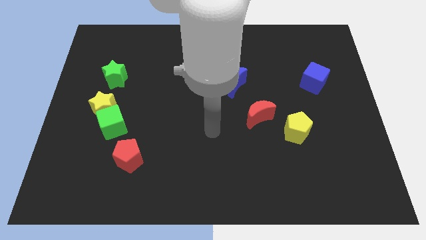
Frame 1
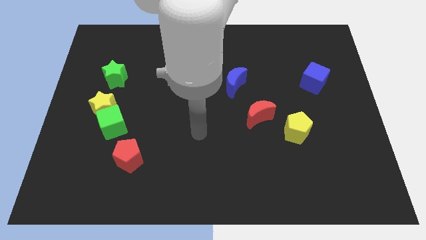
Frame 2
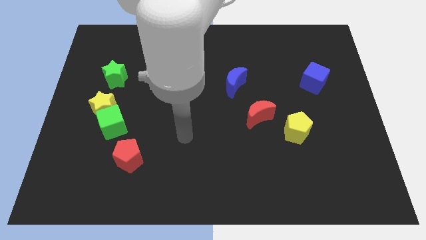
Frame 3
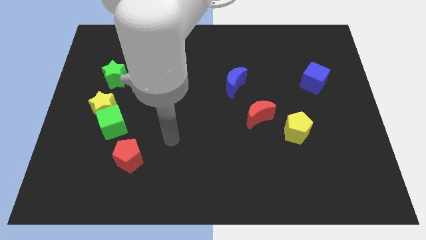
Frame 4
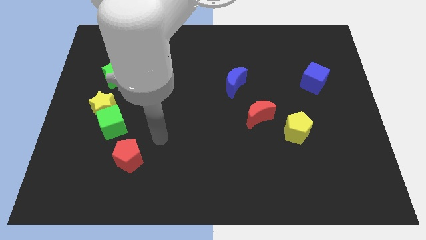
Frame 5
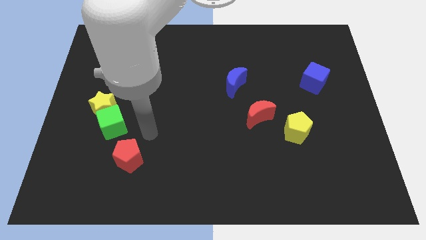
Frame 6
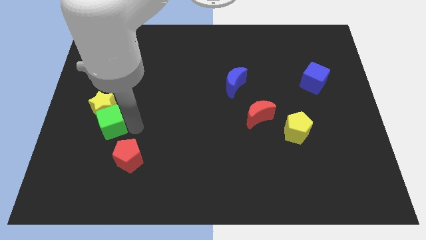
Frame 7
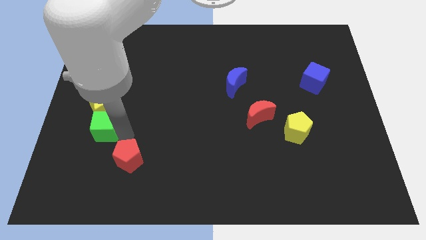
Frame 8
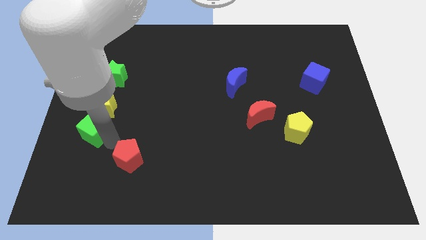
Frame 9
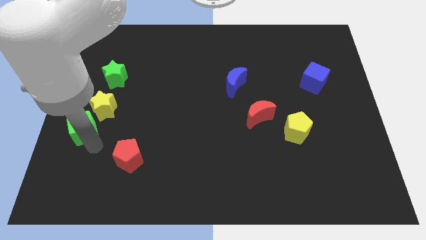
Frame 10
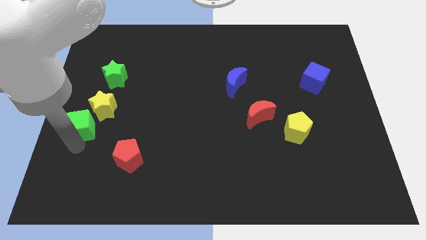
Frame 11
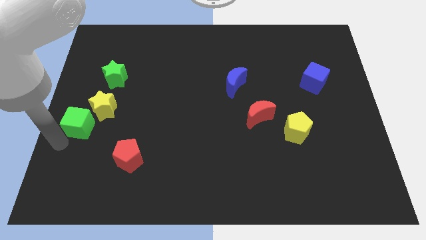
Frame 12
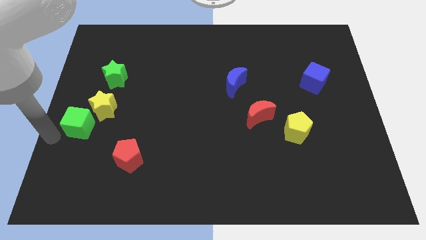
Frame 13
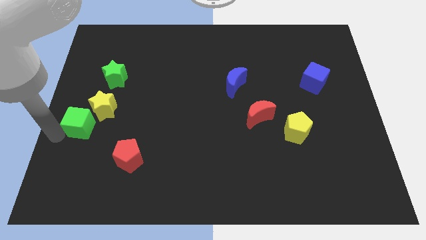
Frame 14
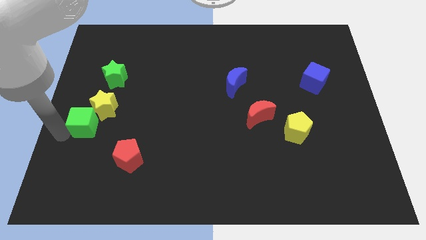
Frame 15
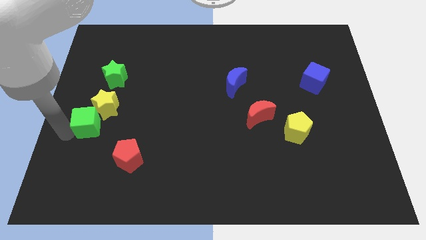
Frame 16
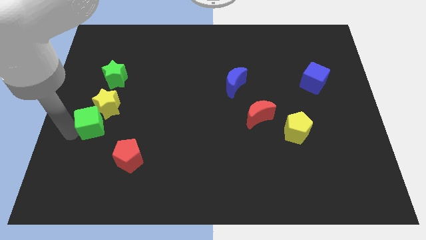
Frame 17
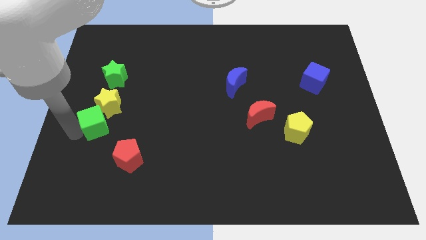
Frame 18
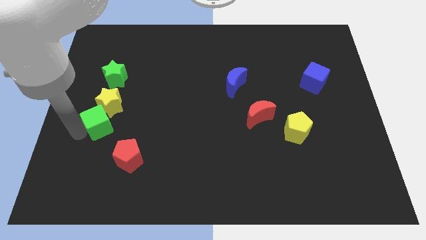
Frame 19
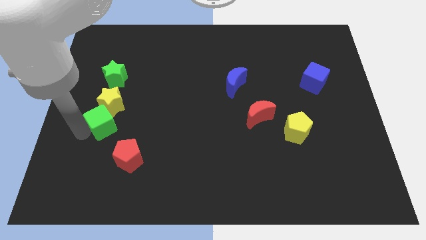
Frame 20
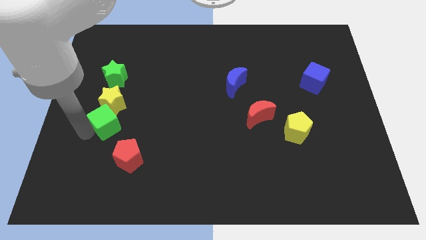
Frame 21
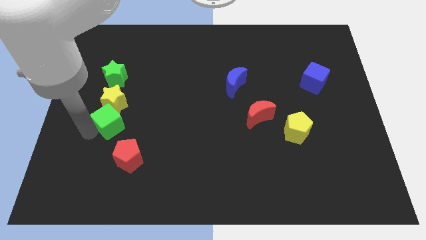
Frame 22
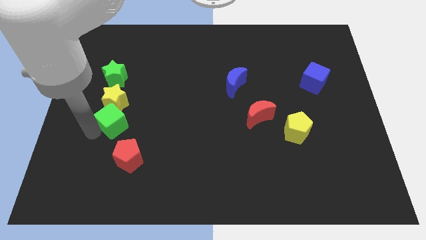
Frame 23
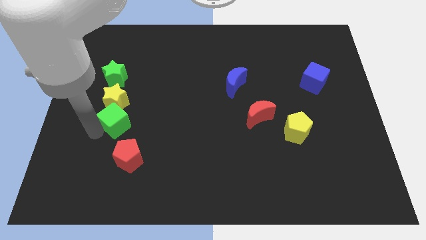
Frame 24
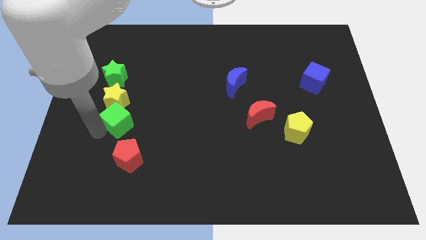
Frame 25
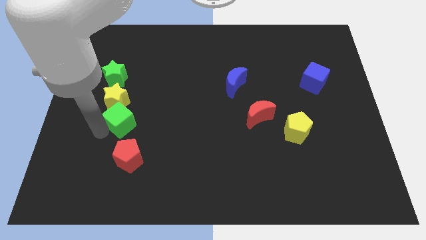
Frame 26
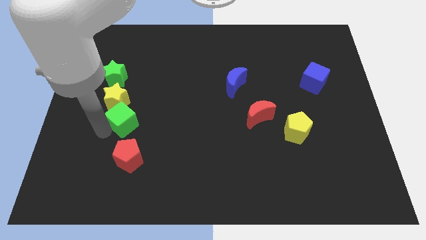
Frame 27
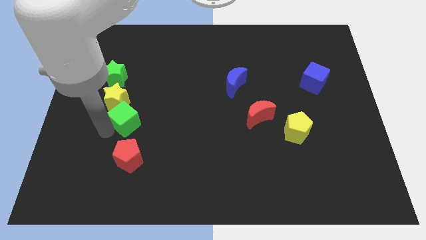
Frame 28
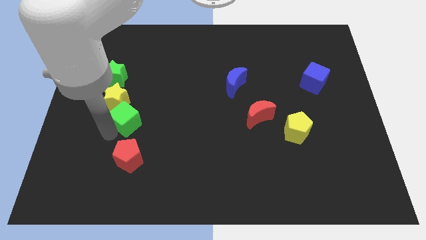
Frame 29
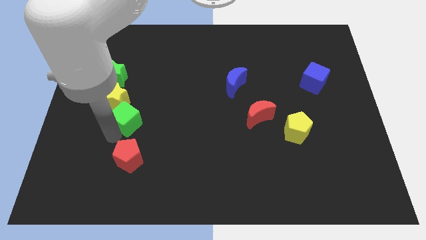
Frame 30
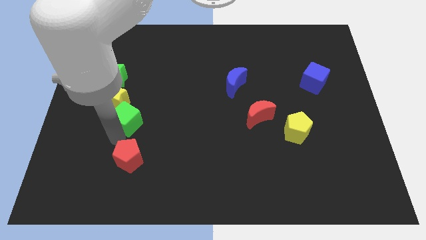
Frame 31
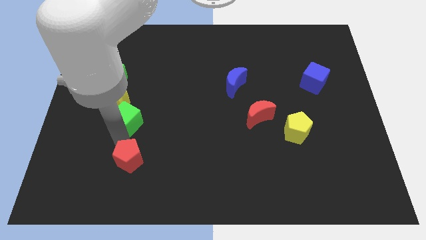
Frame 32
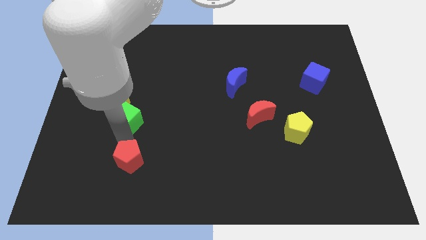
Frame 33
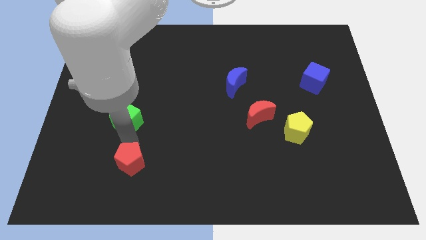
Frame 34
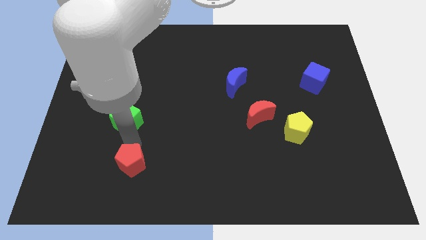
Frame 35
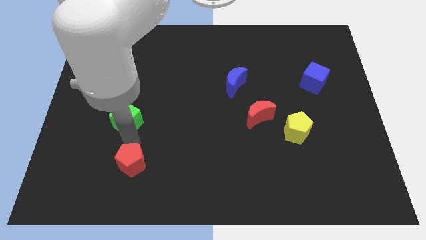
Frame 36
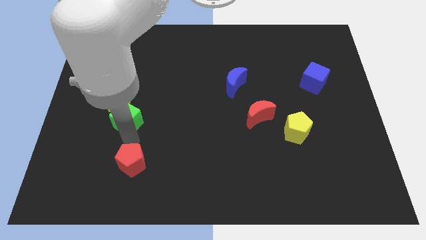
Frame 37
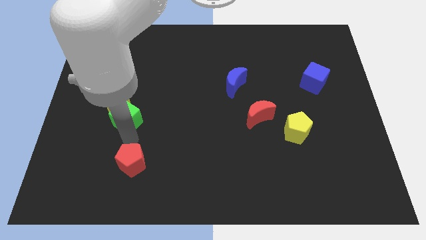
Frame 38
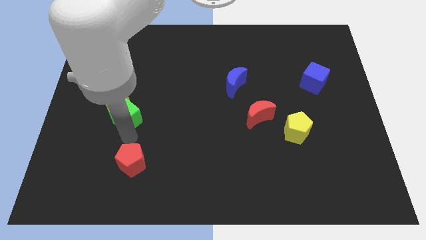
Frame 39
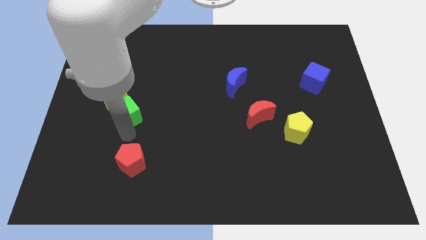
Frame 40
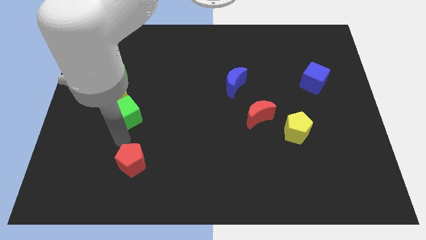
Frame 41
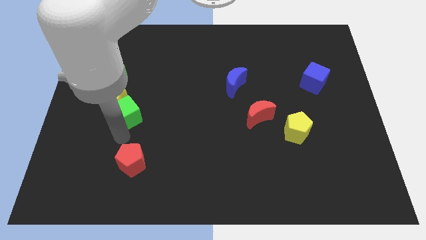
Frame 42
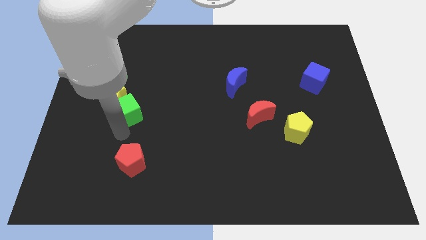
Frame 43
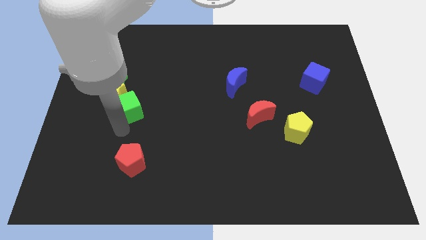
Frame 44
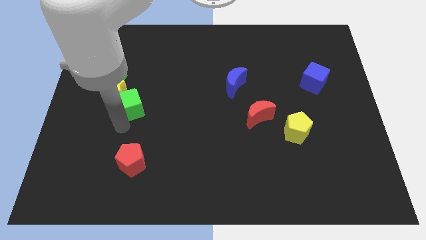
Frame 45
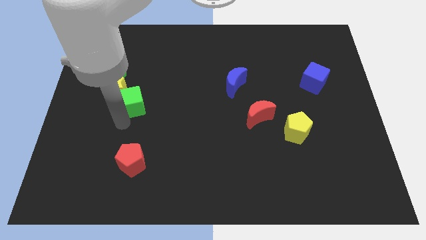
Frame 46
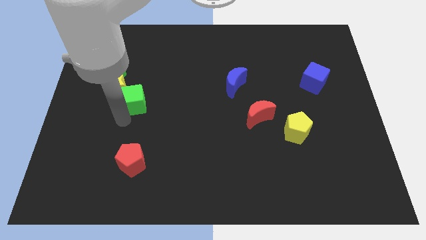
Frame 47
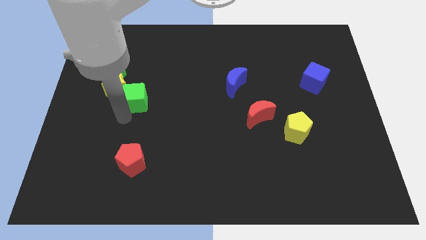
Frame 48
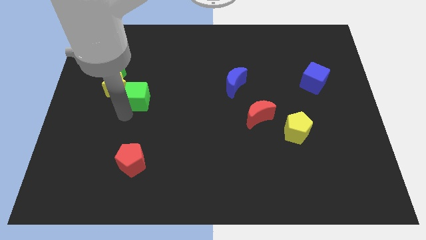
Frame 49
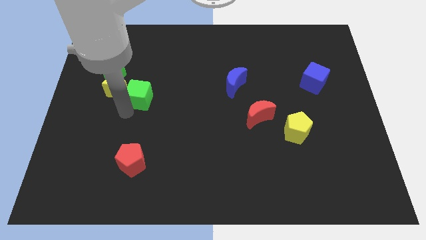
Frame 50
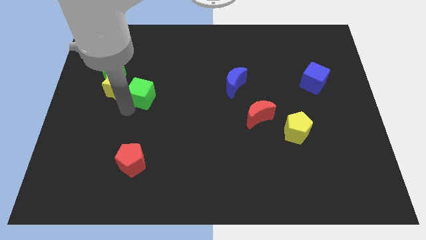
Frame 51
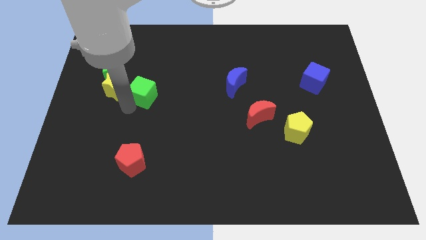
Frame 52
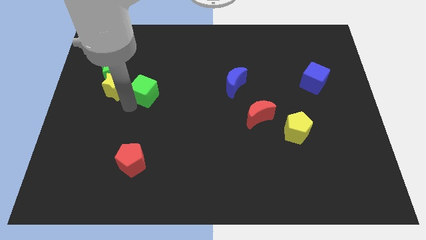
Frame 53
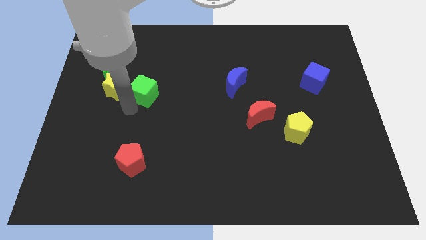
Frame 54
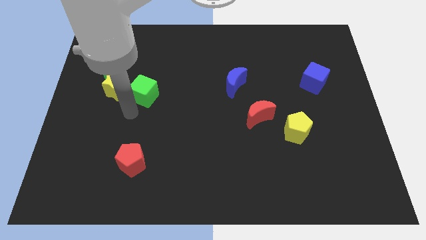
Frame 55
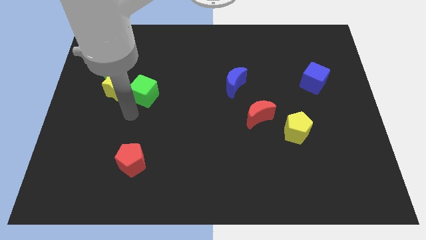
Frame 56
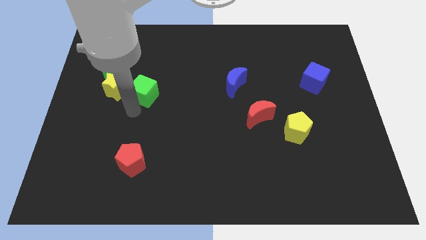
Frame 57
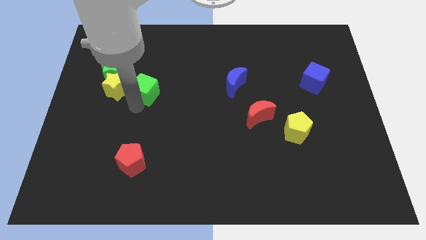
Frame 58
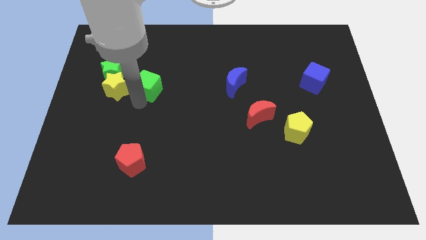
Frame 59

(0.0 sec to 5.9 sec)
separate the green cube from the yellow star and red pentagon

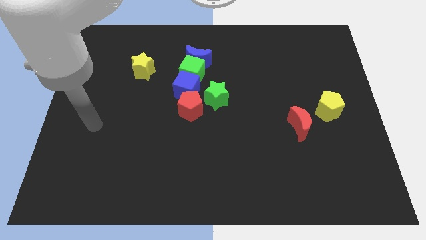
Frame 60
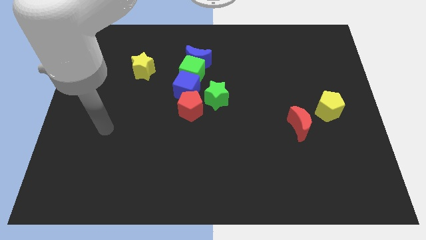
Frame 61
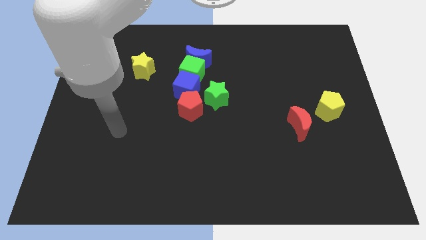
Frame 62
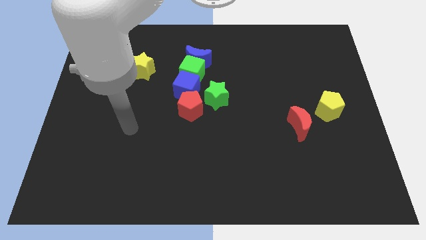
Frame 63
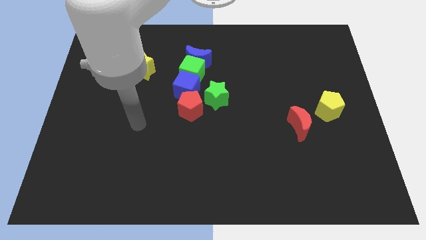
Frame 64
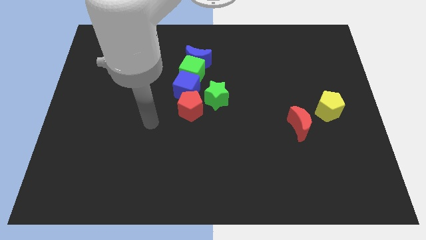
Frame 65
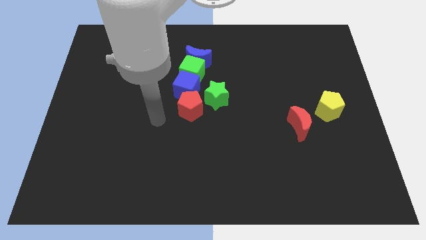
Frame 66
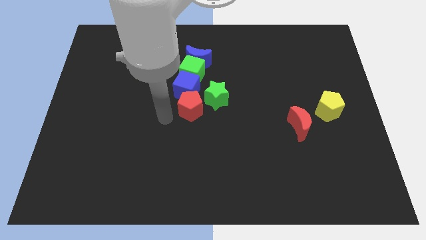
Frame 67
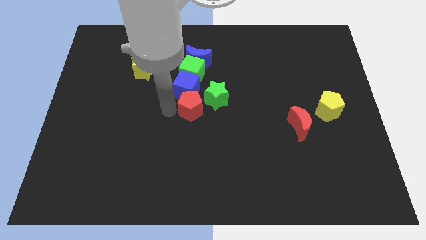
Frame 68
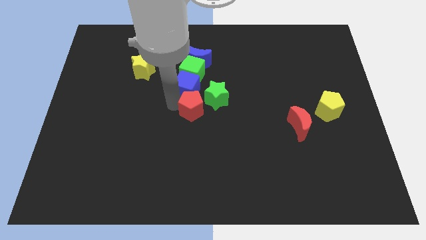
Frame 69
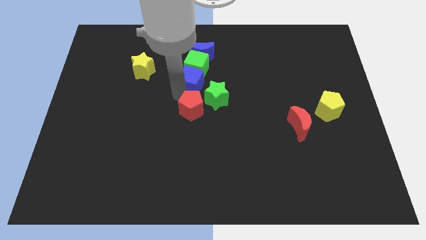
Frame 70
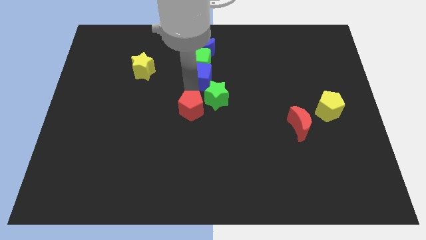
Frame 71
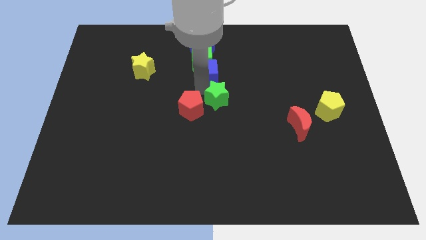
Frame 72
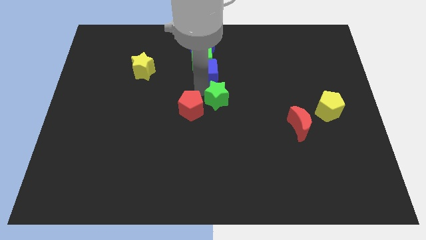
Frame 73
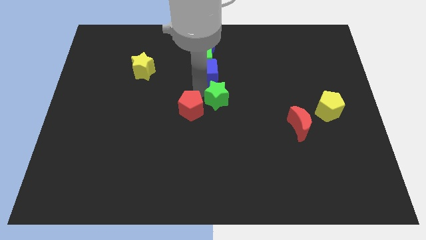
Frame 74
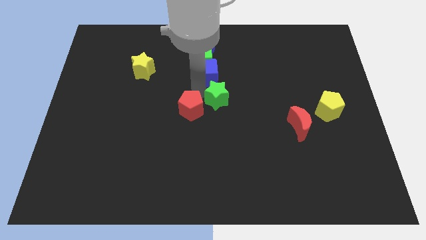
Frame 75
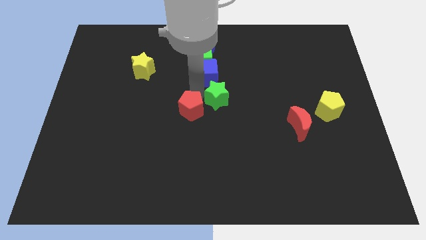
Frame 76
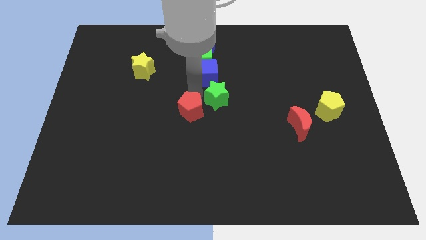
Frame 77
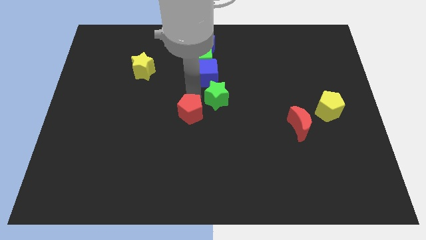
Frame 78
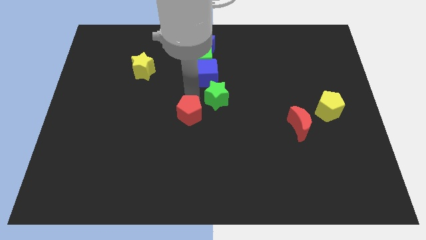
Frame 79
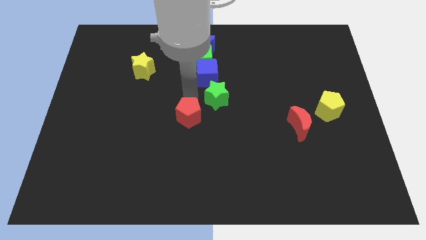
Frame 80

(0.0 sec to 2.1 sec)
move the red pentagon away from the blue cube and green star

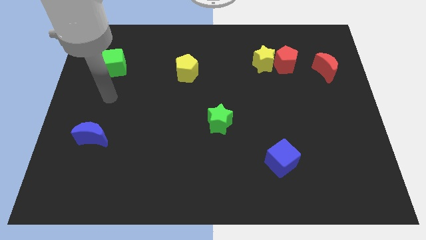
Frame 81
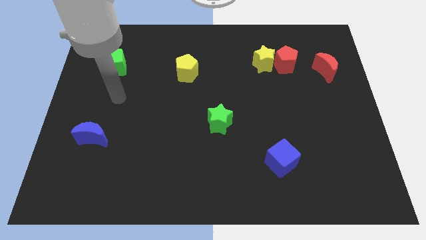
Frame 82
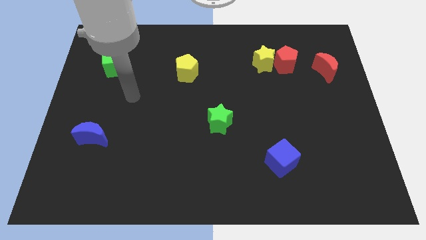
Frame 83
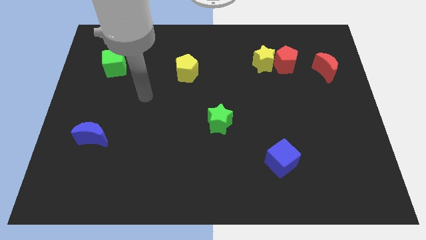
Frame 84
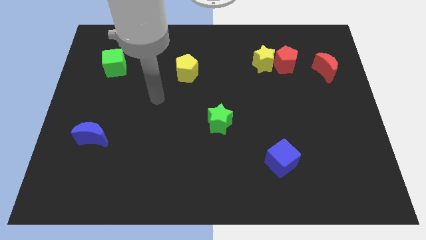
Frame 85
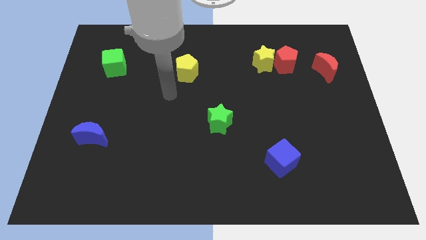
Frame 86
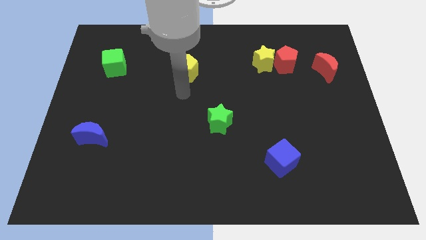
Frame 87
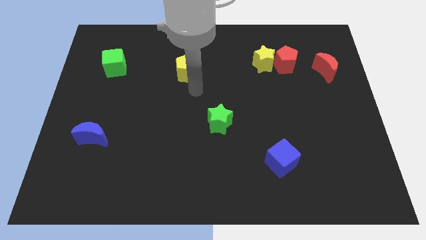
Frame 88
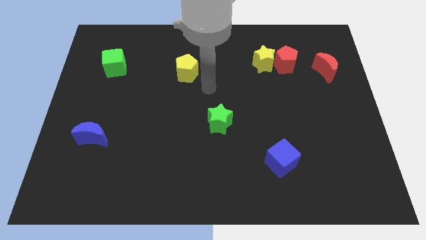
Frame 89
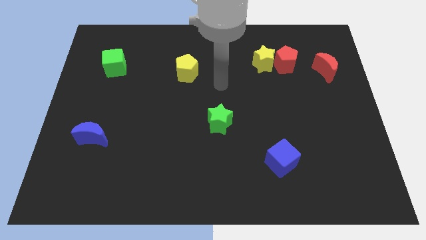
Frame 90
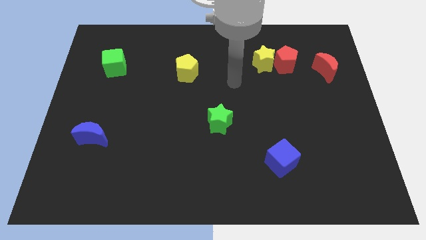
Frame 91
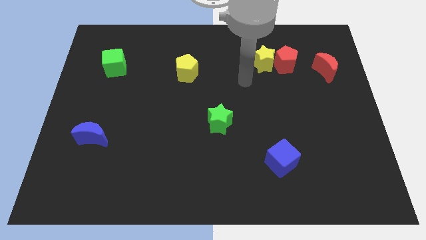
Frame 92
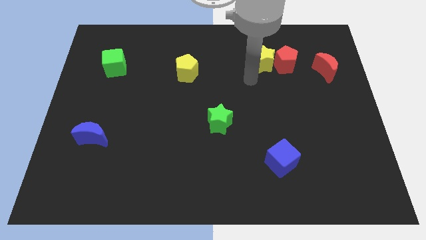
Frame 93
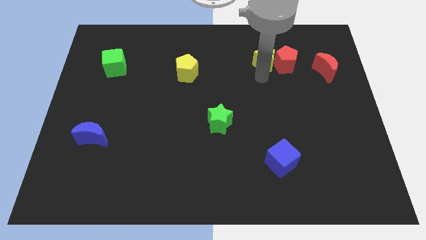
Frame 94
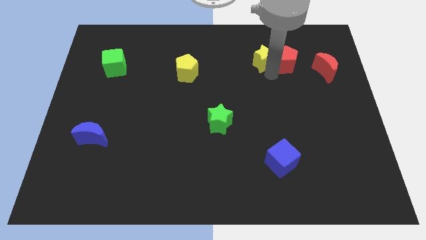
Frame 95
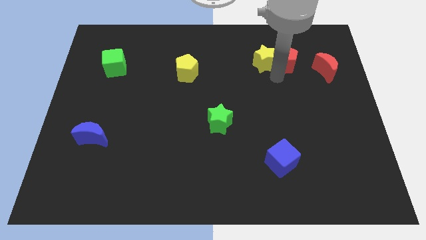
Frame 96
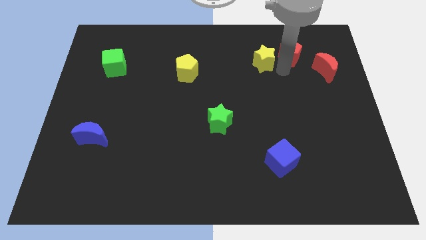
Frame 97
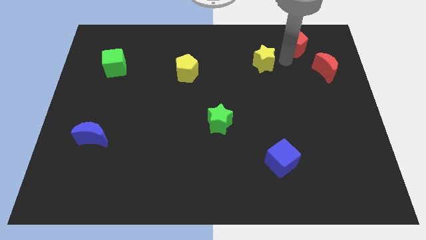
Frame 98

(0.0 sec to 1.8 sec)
separate the yellow star from the red pentagon
